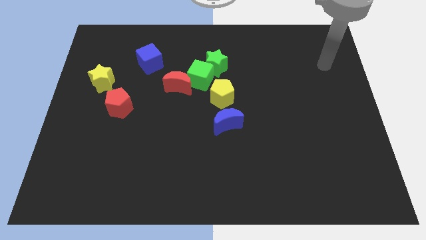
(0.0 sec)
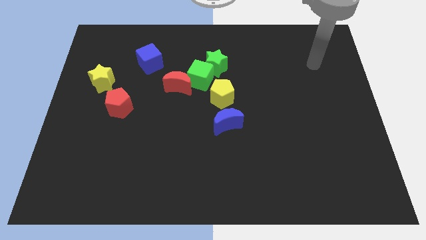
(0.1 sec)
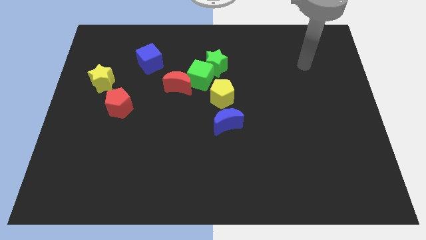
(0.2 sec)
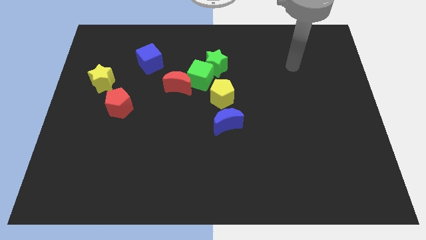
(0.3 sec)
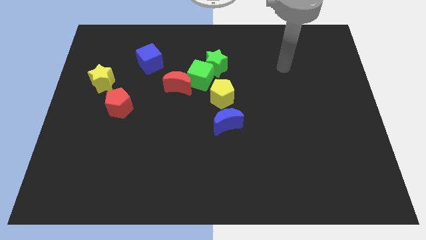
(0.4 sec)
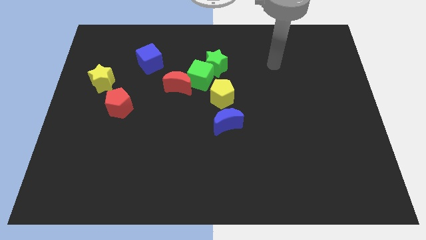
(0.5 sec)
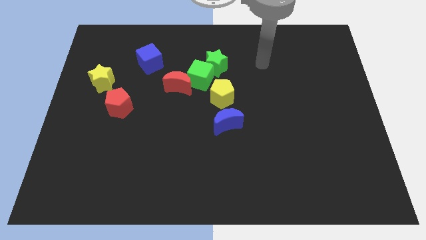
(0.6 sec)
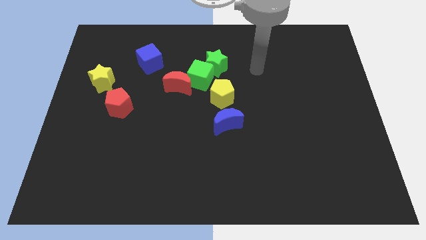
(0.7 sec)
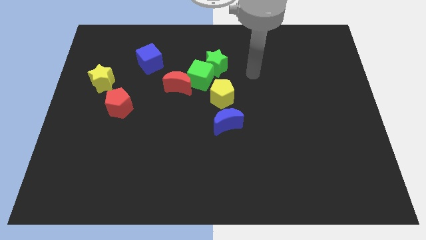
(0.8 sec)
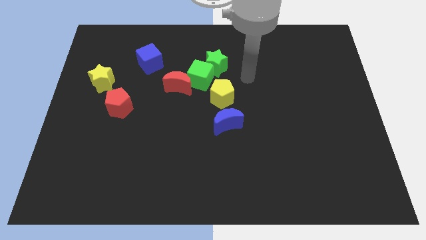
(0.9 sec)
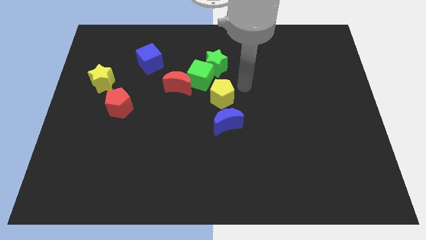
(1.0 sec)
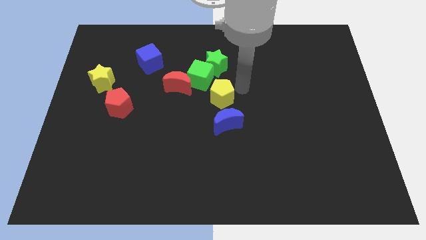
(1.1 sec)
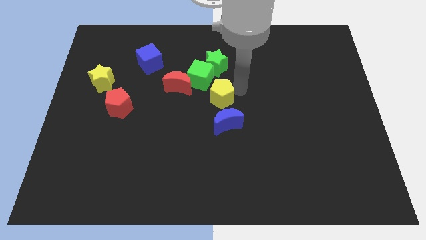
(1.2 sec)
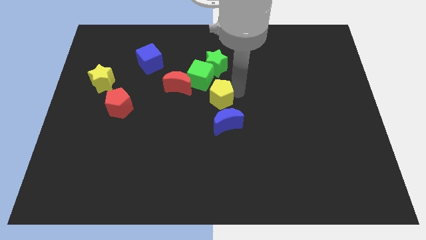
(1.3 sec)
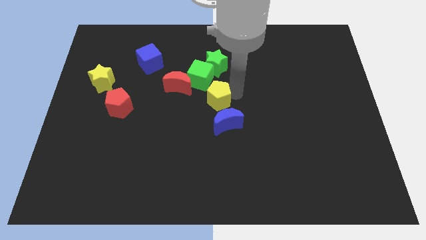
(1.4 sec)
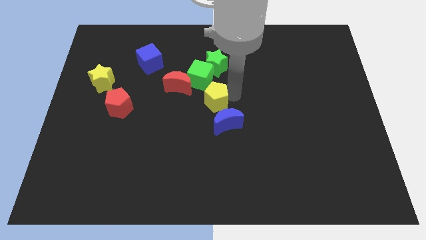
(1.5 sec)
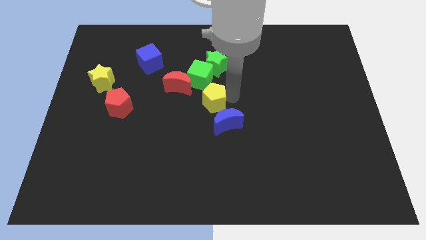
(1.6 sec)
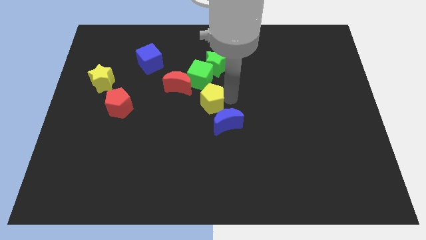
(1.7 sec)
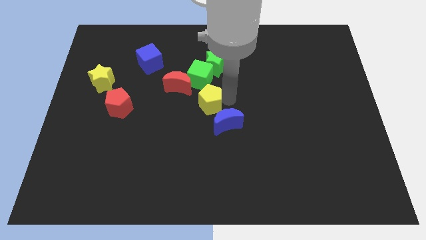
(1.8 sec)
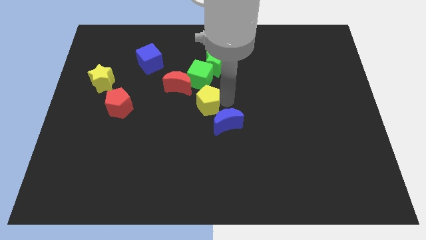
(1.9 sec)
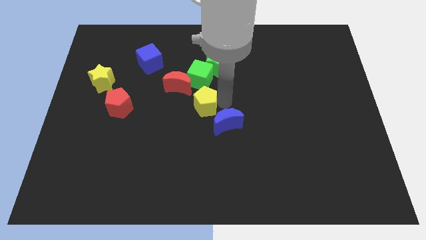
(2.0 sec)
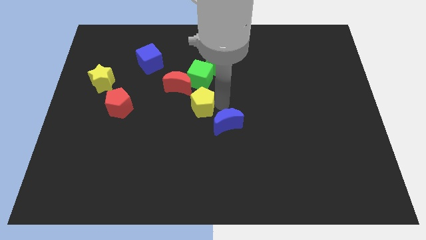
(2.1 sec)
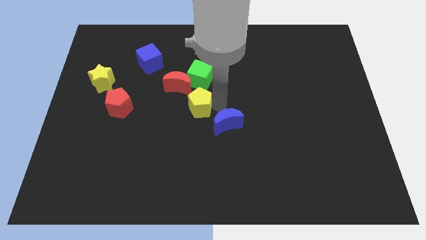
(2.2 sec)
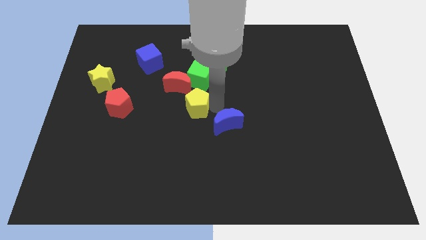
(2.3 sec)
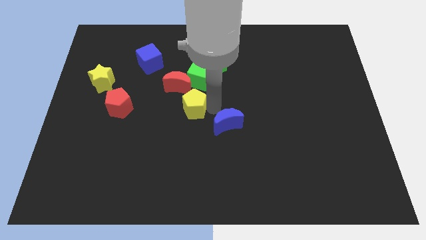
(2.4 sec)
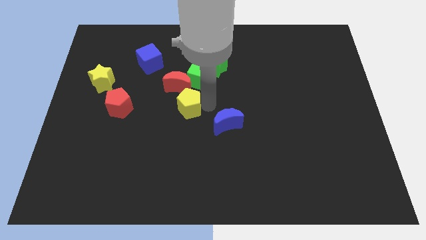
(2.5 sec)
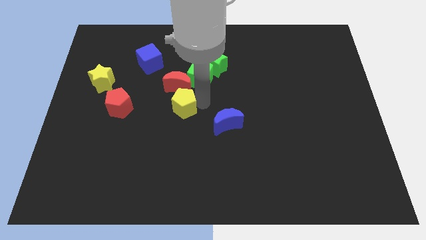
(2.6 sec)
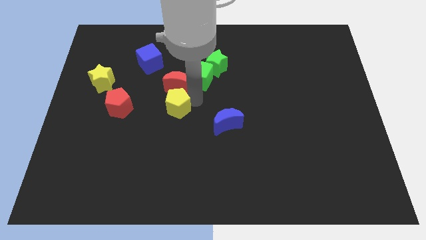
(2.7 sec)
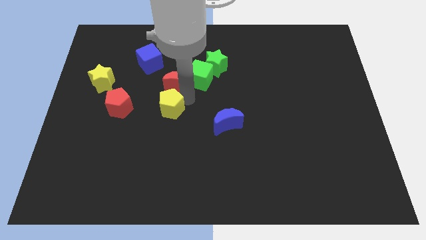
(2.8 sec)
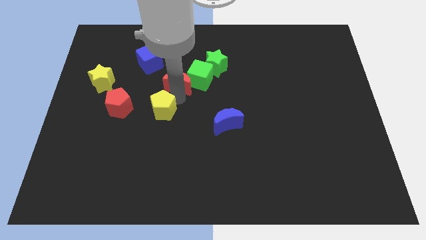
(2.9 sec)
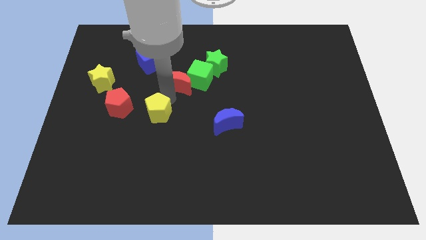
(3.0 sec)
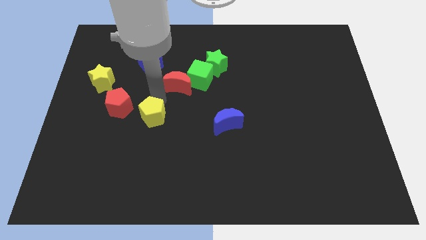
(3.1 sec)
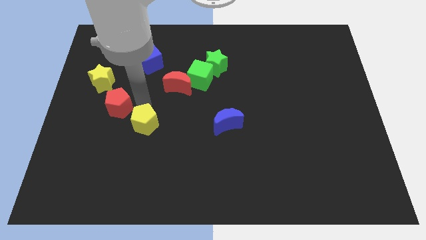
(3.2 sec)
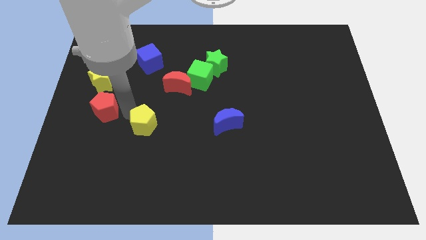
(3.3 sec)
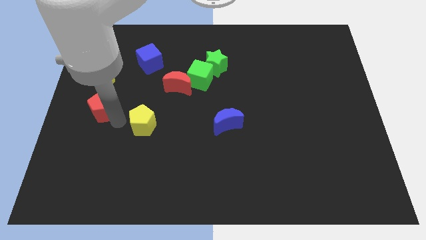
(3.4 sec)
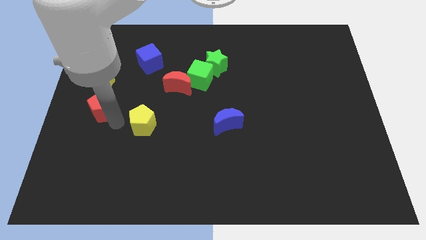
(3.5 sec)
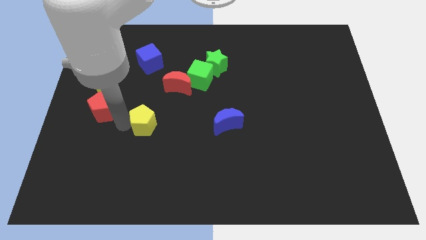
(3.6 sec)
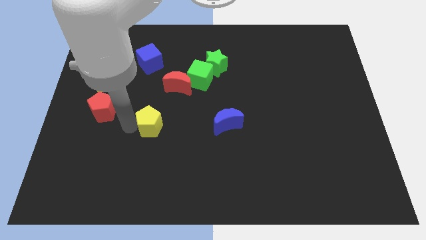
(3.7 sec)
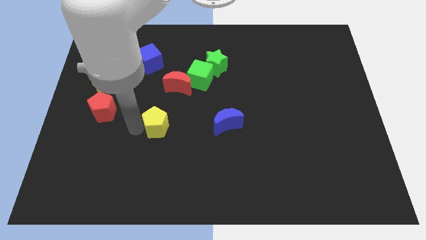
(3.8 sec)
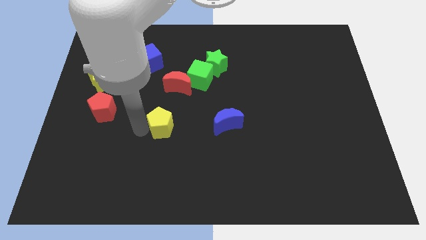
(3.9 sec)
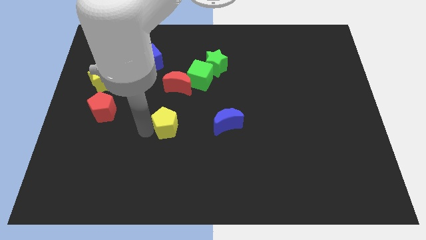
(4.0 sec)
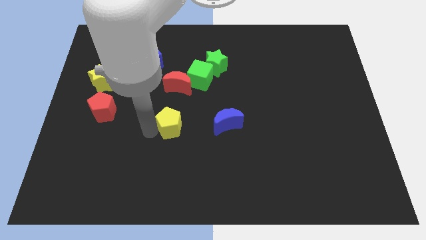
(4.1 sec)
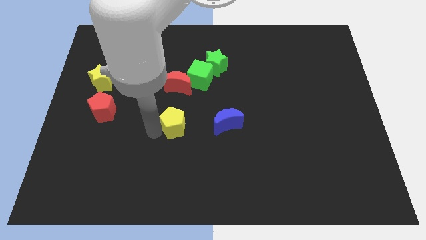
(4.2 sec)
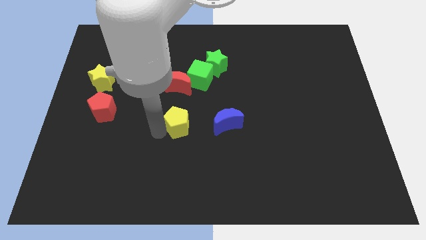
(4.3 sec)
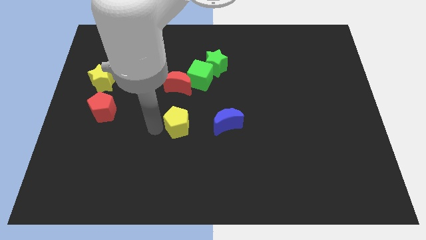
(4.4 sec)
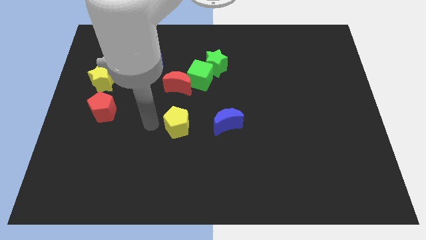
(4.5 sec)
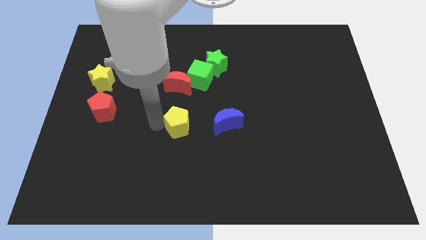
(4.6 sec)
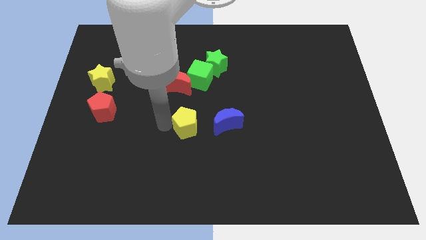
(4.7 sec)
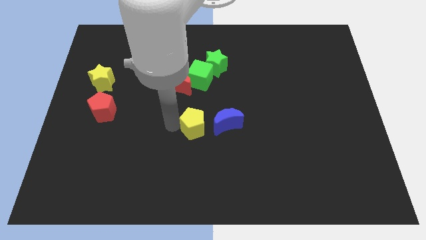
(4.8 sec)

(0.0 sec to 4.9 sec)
push the yellow pentagon a bit downwards

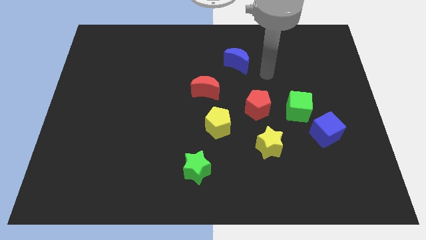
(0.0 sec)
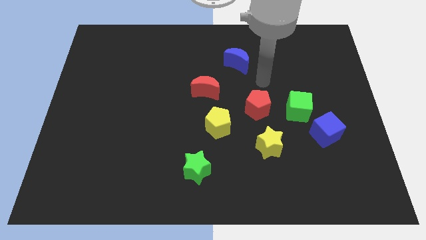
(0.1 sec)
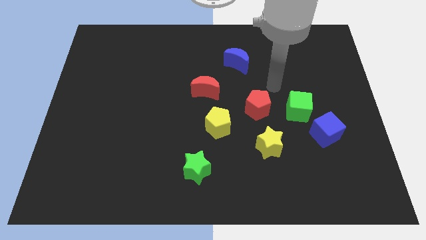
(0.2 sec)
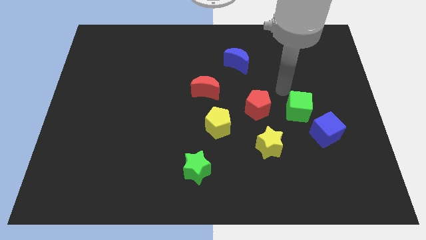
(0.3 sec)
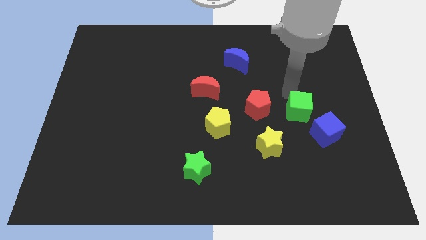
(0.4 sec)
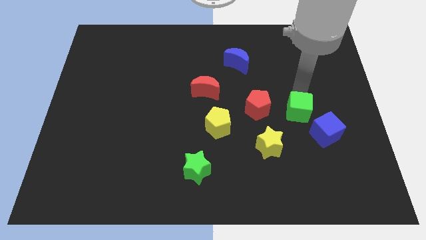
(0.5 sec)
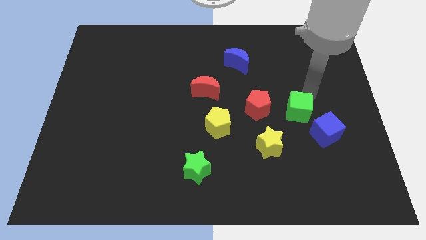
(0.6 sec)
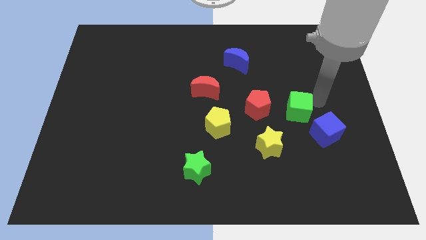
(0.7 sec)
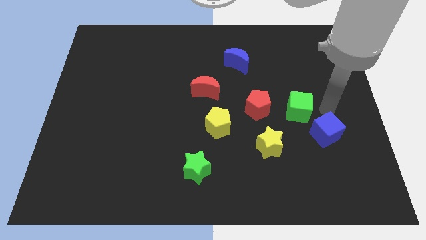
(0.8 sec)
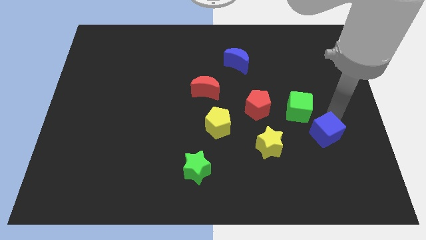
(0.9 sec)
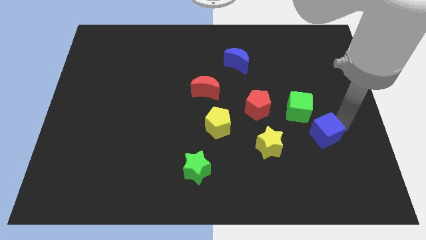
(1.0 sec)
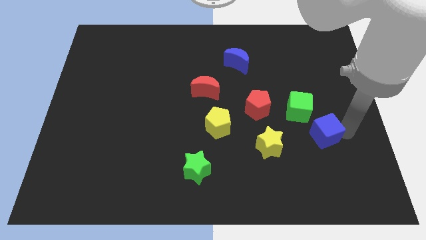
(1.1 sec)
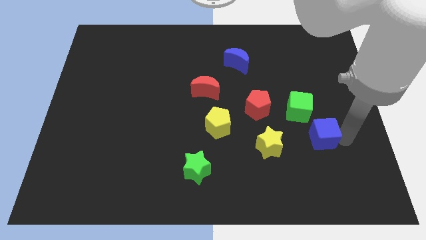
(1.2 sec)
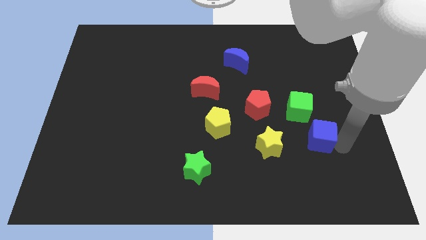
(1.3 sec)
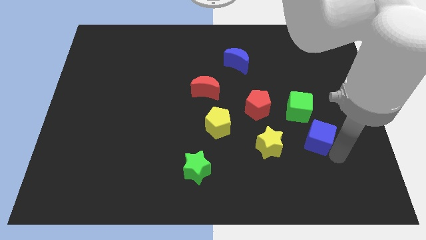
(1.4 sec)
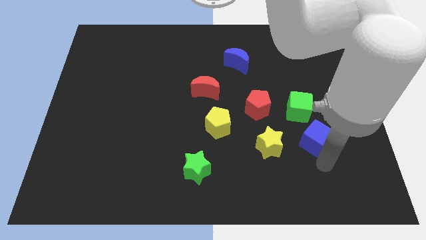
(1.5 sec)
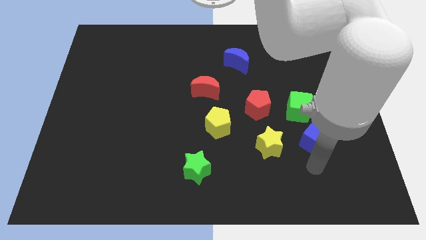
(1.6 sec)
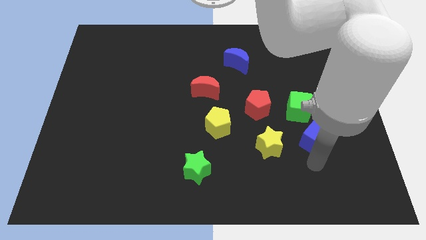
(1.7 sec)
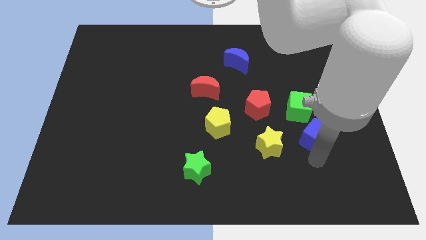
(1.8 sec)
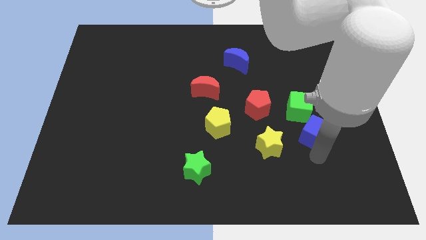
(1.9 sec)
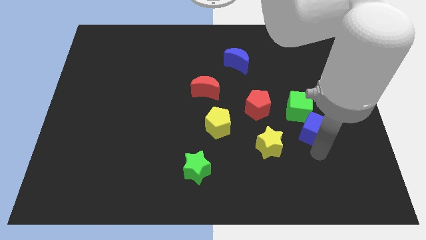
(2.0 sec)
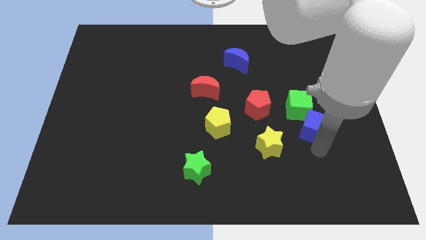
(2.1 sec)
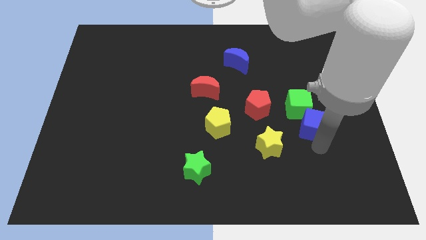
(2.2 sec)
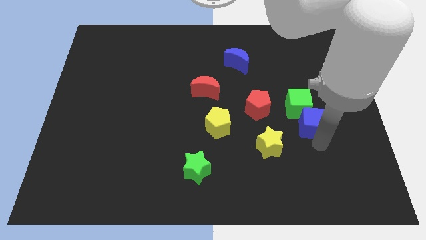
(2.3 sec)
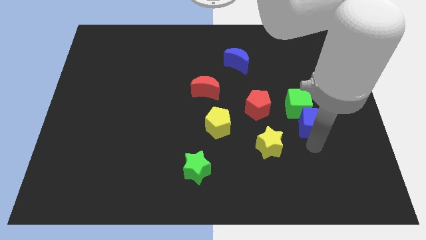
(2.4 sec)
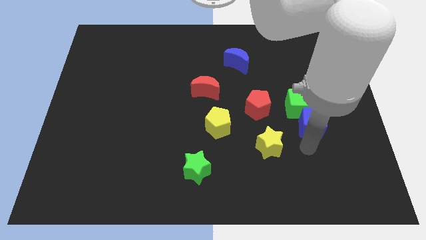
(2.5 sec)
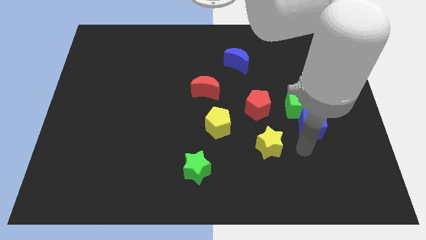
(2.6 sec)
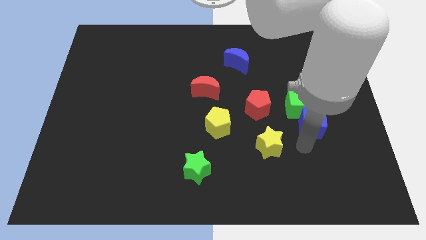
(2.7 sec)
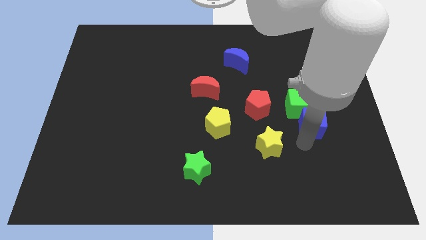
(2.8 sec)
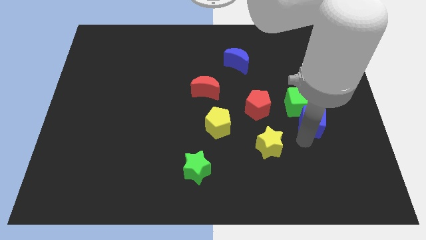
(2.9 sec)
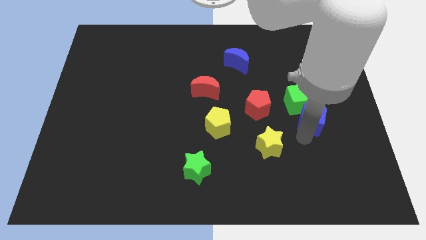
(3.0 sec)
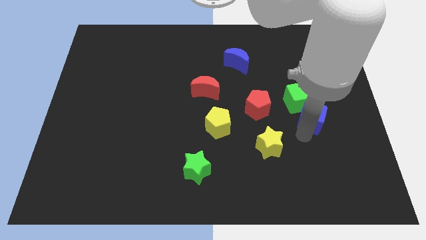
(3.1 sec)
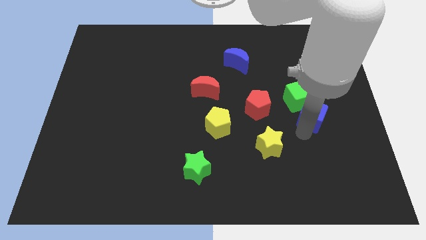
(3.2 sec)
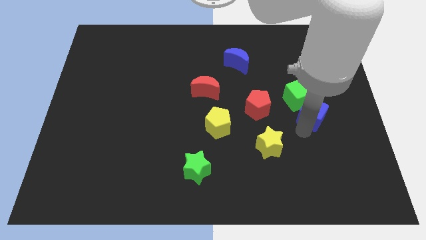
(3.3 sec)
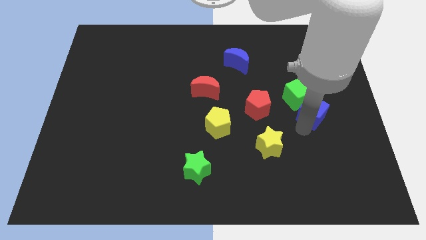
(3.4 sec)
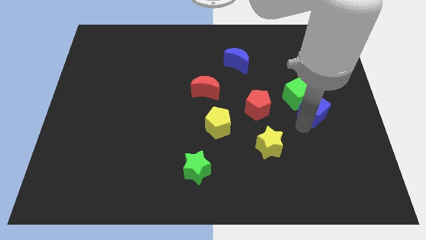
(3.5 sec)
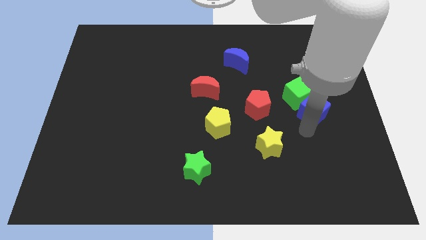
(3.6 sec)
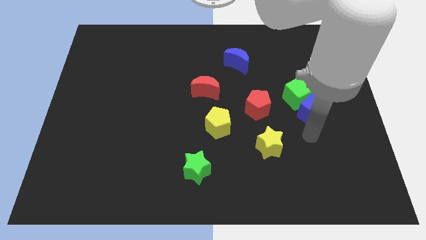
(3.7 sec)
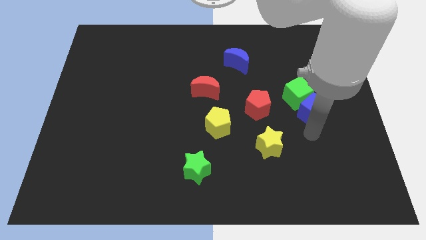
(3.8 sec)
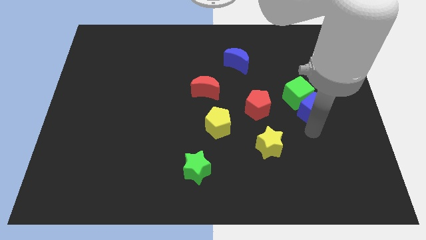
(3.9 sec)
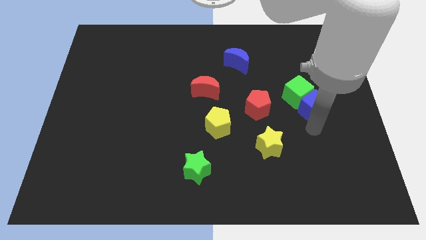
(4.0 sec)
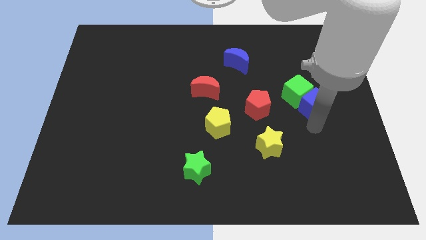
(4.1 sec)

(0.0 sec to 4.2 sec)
slightly slide the blue cube upwards
